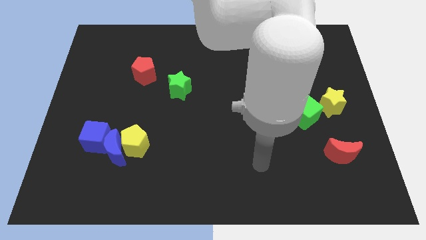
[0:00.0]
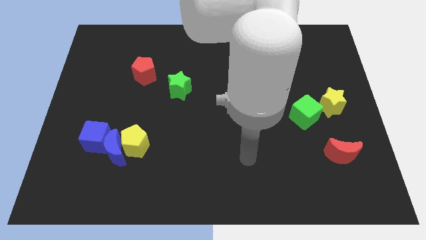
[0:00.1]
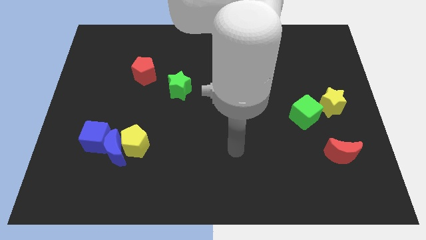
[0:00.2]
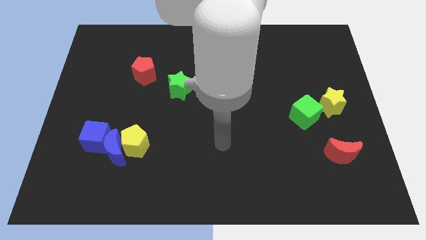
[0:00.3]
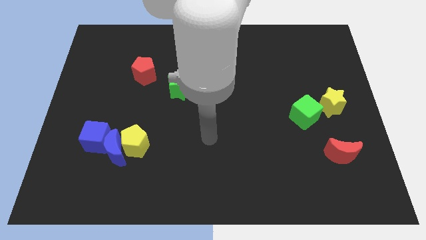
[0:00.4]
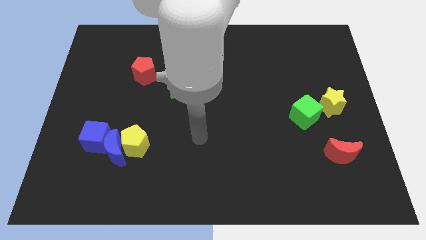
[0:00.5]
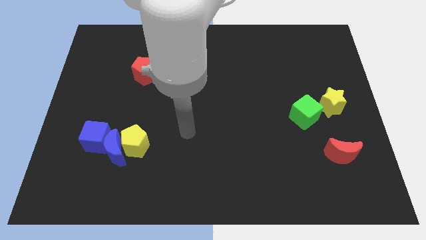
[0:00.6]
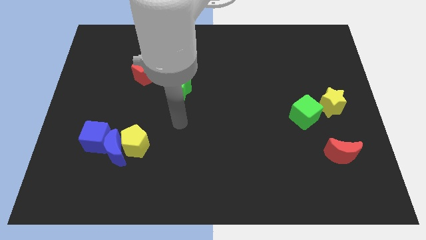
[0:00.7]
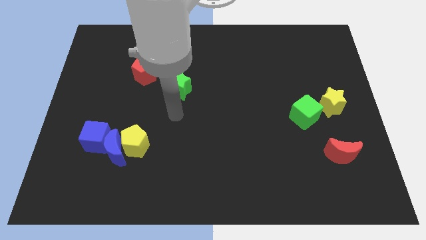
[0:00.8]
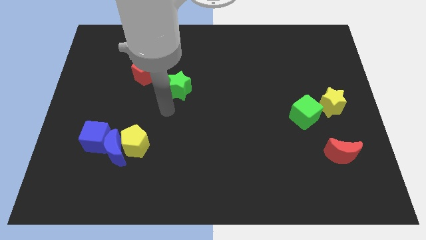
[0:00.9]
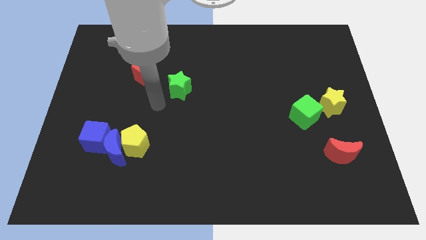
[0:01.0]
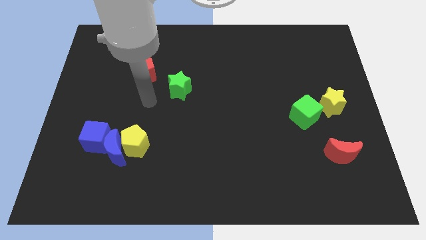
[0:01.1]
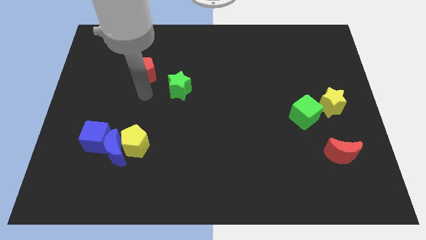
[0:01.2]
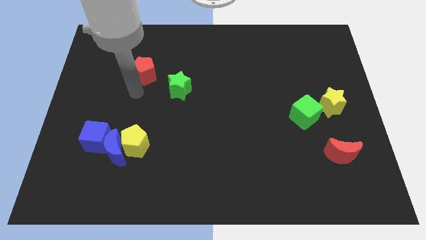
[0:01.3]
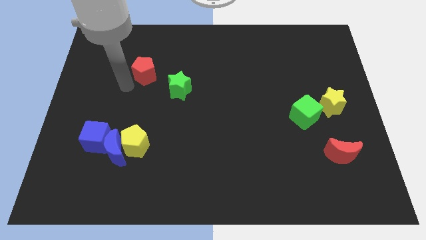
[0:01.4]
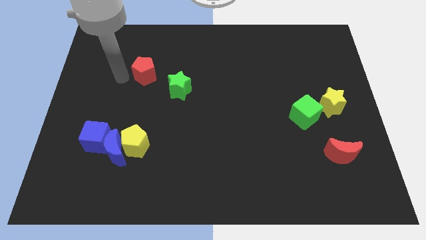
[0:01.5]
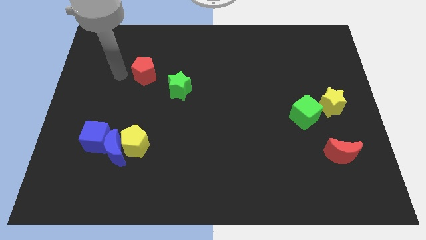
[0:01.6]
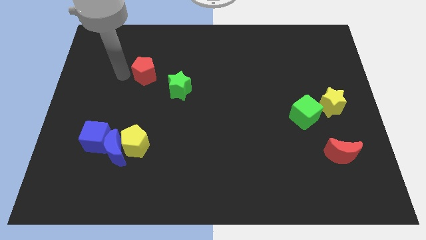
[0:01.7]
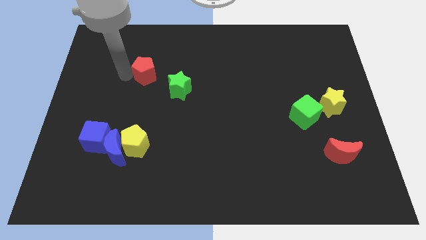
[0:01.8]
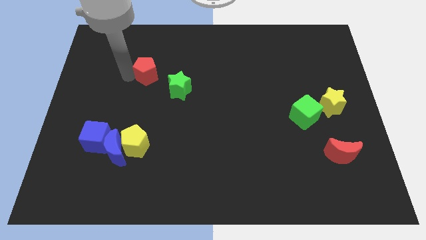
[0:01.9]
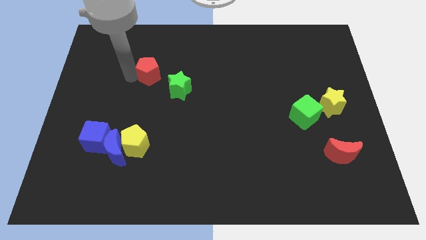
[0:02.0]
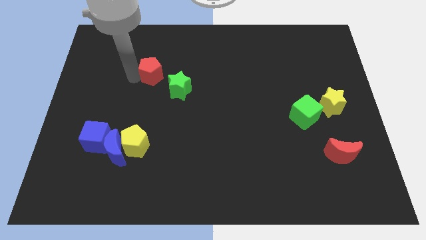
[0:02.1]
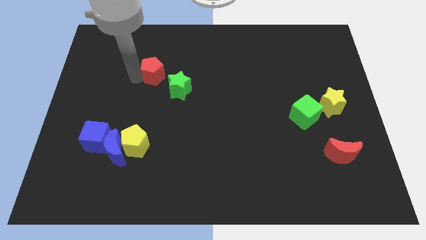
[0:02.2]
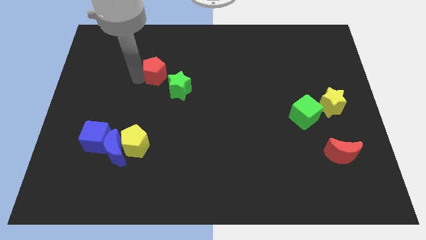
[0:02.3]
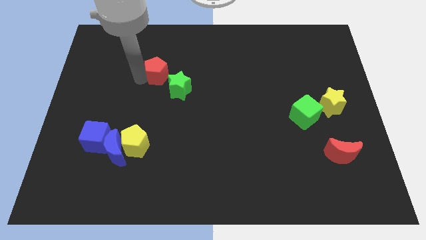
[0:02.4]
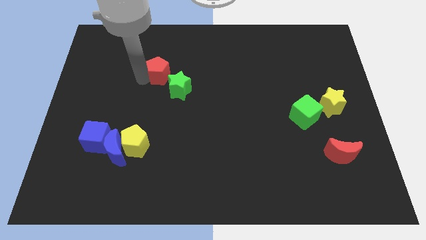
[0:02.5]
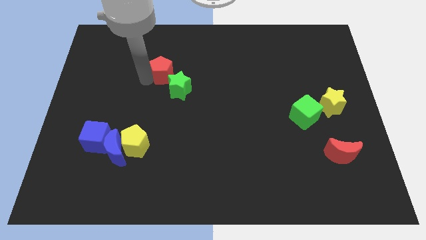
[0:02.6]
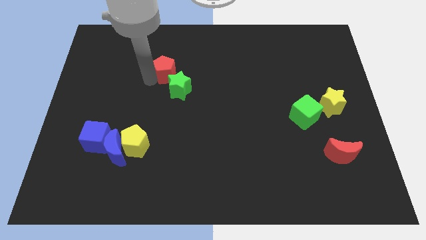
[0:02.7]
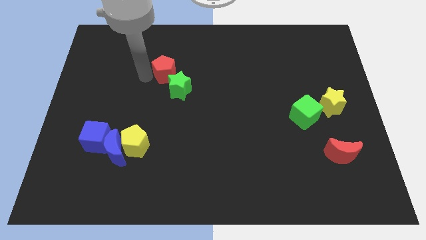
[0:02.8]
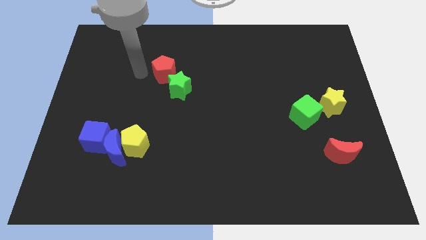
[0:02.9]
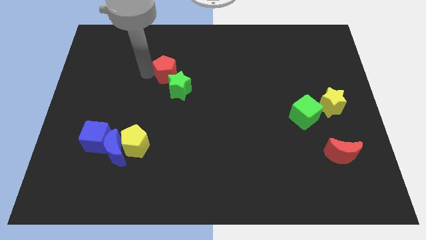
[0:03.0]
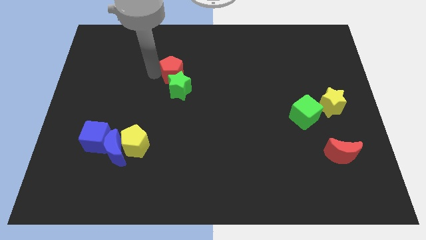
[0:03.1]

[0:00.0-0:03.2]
move the red pentagon a little to the right

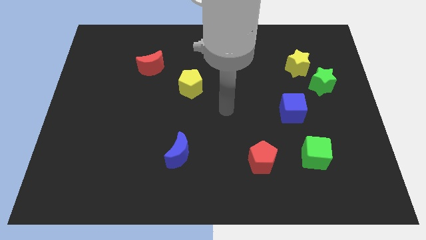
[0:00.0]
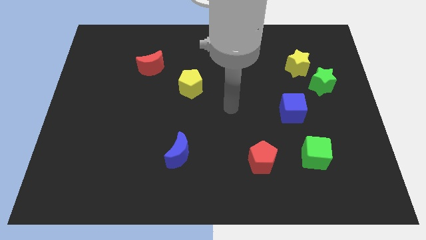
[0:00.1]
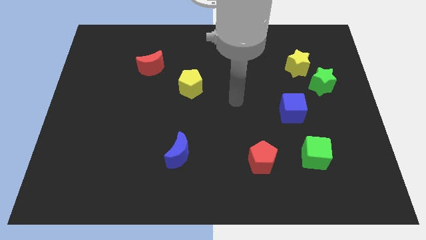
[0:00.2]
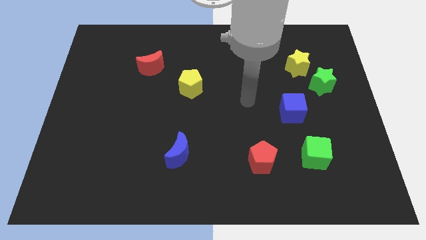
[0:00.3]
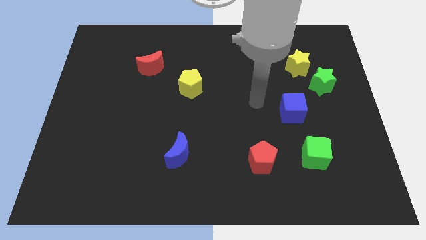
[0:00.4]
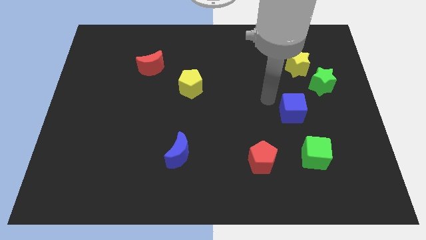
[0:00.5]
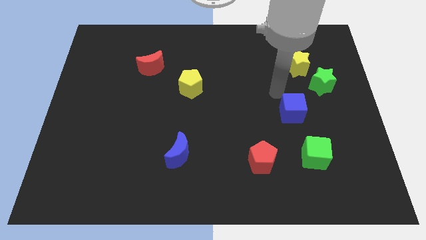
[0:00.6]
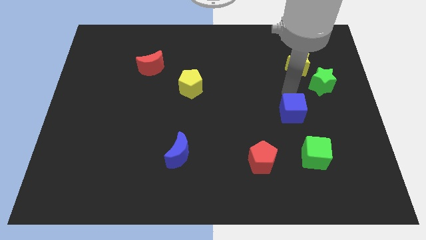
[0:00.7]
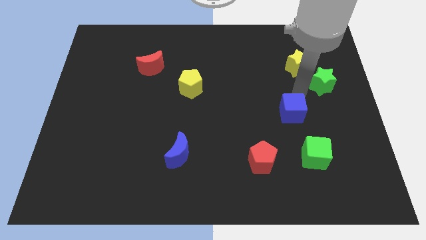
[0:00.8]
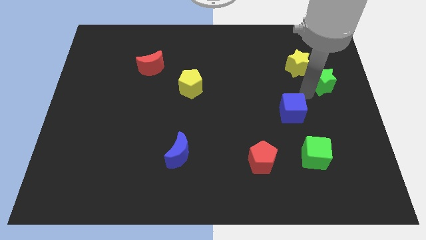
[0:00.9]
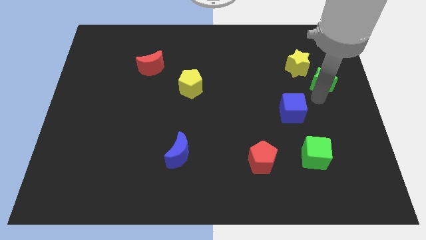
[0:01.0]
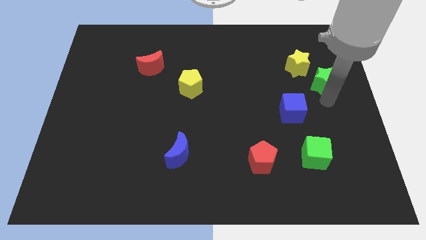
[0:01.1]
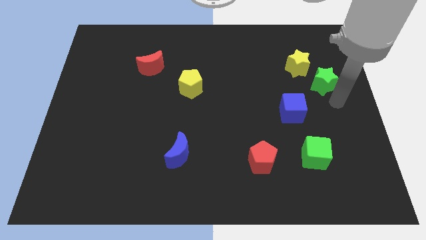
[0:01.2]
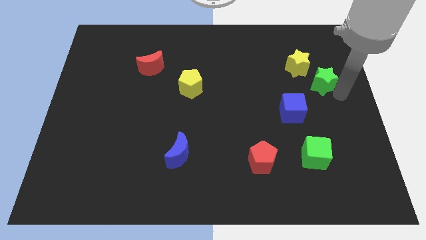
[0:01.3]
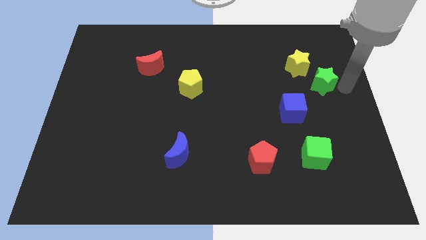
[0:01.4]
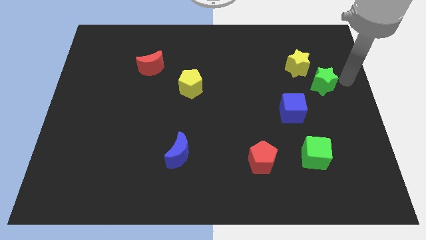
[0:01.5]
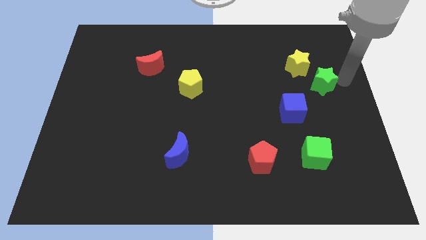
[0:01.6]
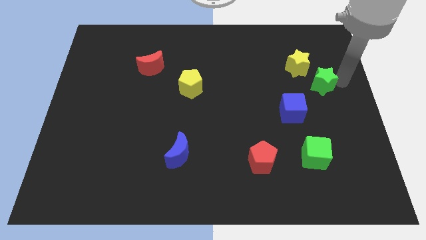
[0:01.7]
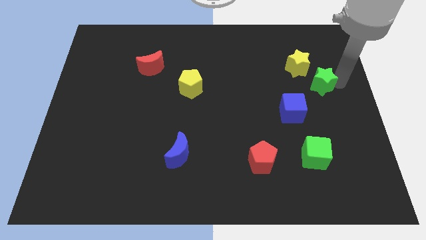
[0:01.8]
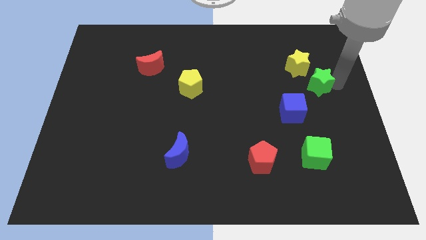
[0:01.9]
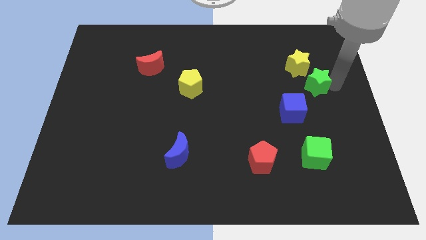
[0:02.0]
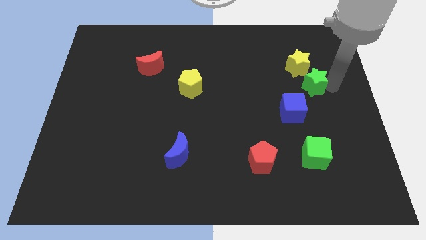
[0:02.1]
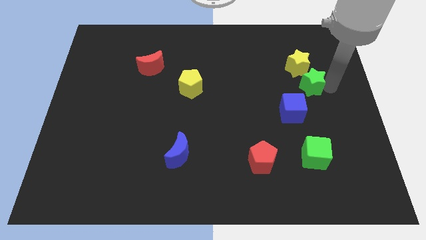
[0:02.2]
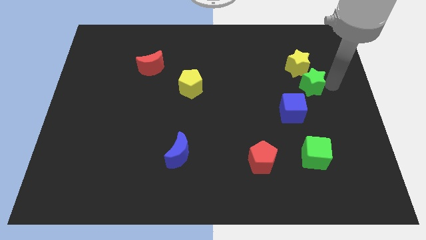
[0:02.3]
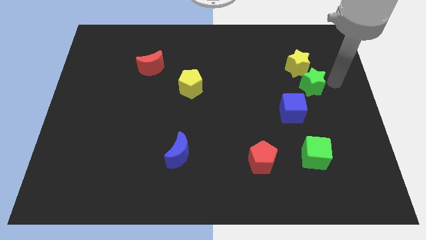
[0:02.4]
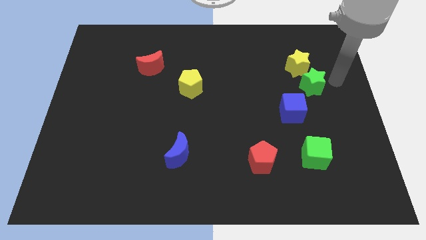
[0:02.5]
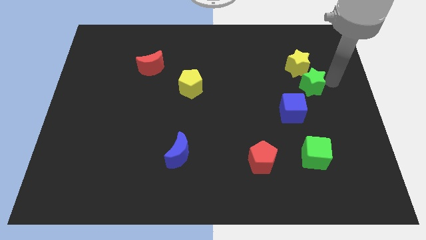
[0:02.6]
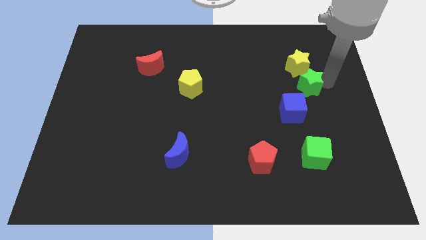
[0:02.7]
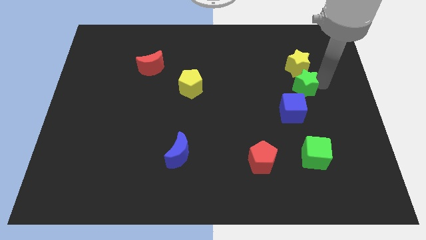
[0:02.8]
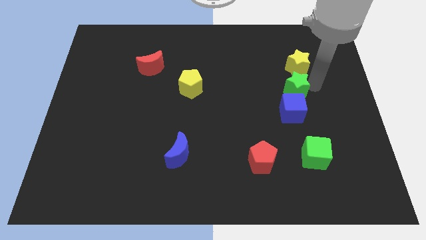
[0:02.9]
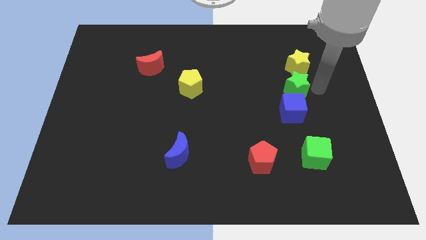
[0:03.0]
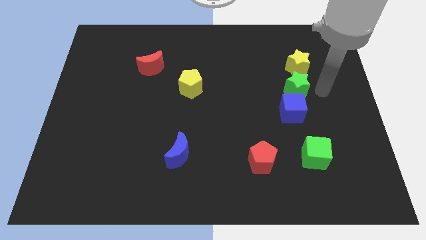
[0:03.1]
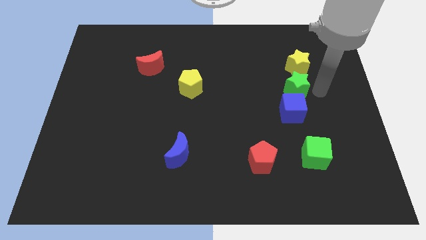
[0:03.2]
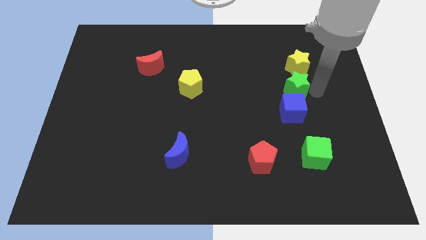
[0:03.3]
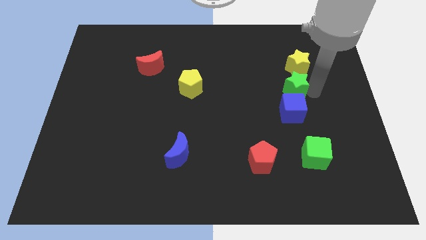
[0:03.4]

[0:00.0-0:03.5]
slide the green star to the left slightly

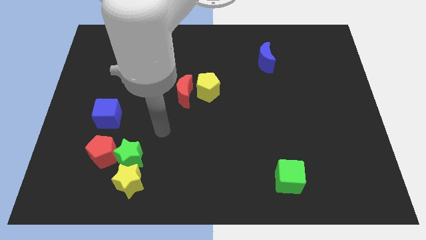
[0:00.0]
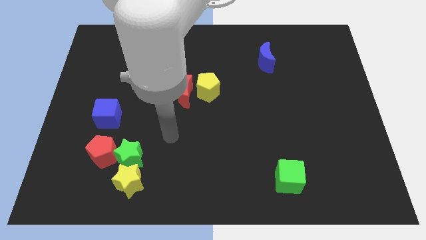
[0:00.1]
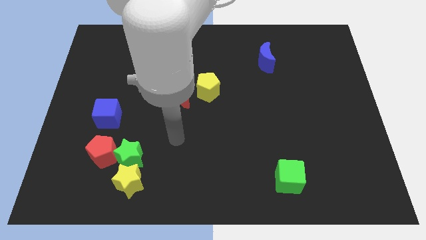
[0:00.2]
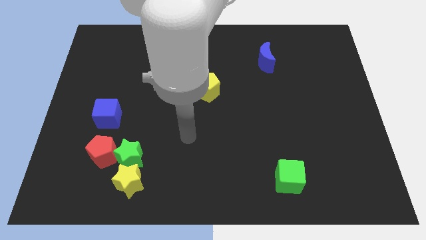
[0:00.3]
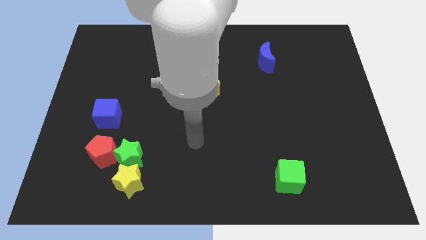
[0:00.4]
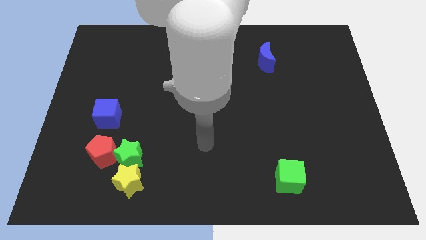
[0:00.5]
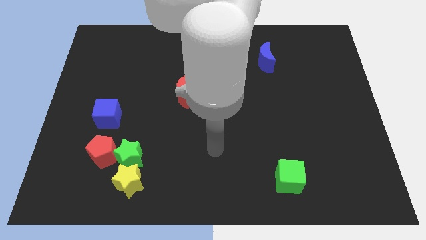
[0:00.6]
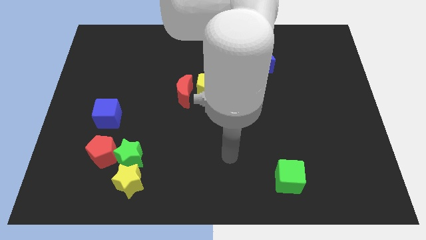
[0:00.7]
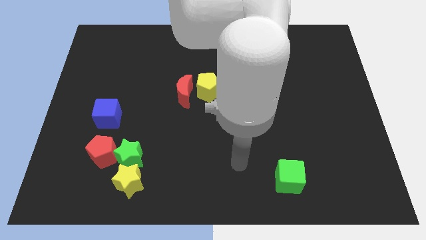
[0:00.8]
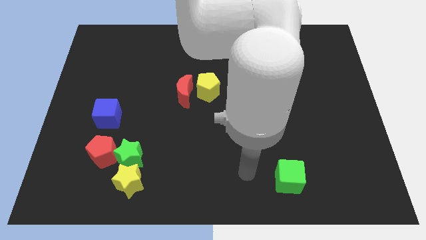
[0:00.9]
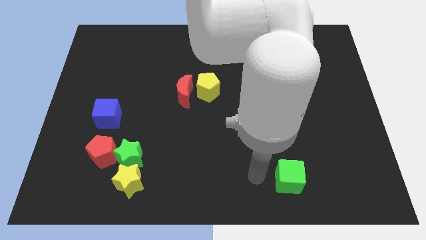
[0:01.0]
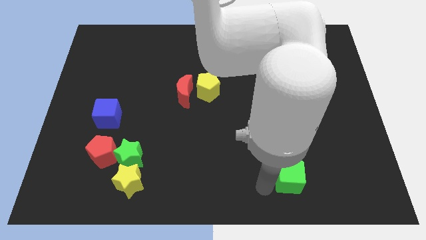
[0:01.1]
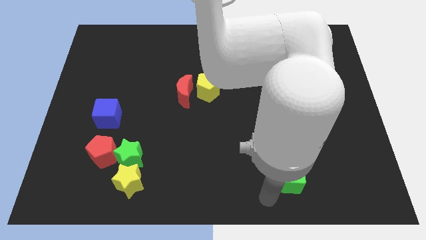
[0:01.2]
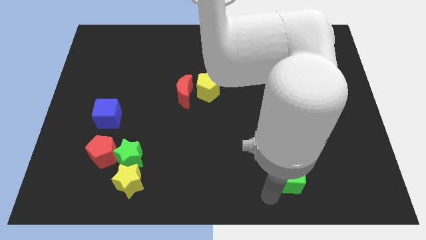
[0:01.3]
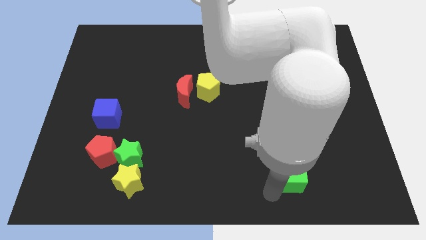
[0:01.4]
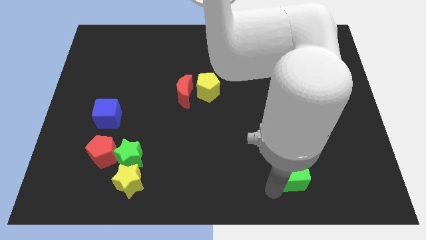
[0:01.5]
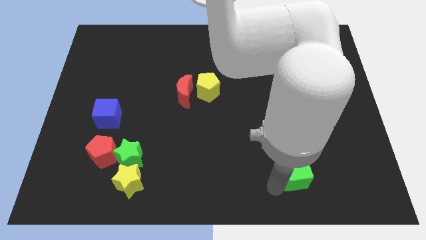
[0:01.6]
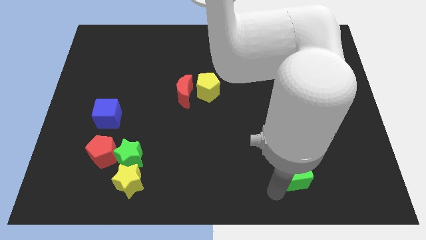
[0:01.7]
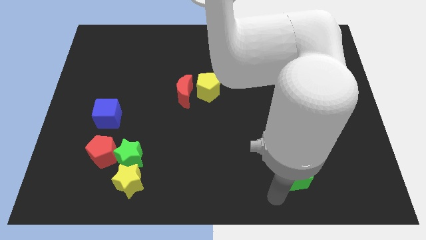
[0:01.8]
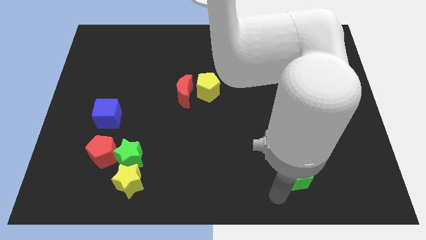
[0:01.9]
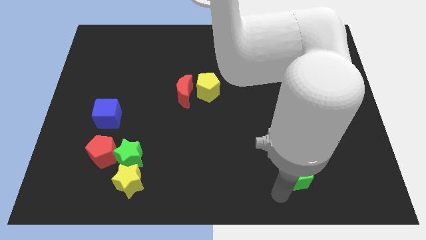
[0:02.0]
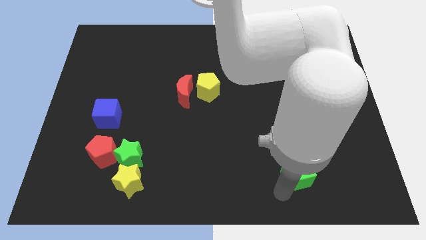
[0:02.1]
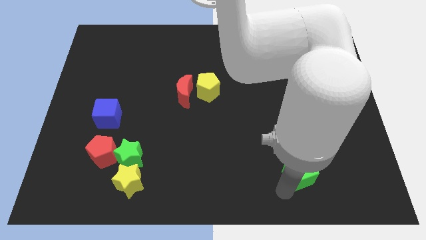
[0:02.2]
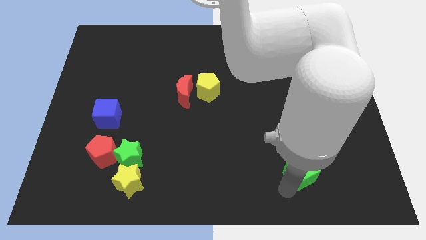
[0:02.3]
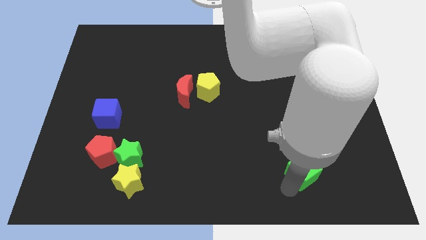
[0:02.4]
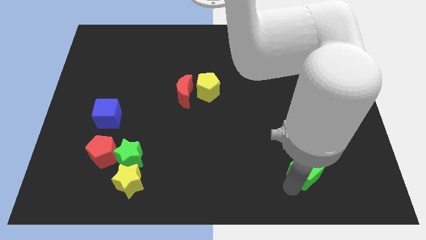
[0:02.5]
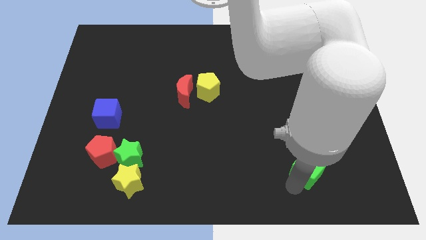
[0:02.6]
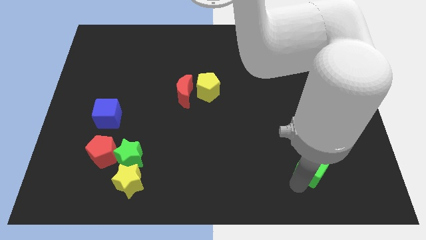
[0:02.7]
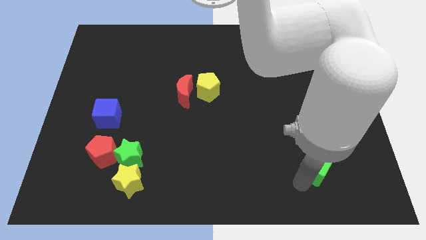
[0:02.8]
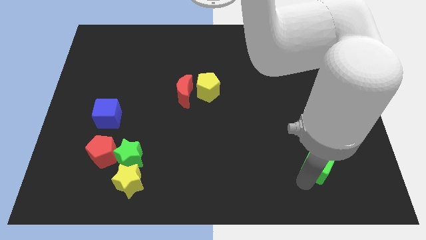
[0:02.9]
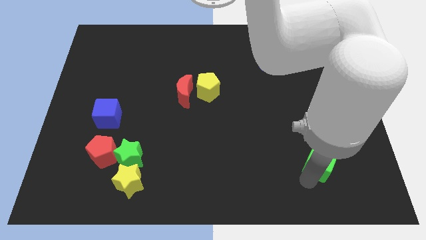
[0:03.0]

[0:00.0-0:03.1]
slightly push the green cube up and to the right
